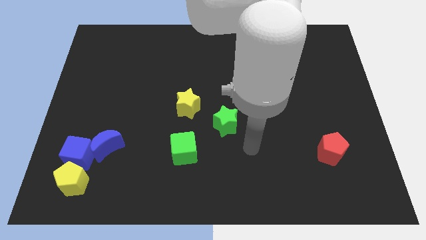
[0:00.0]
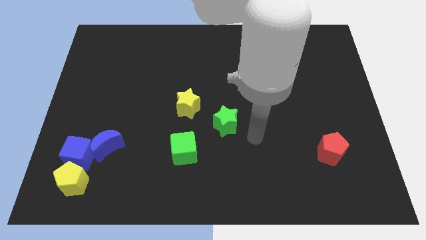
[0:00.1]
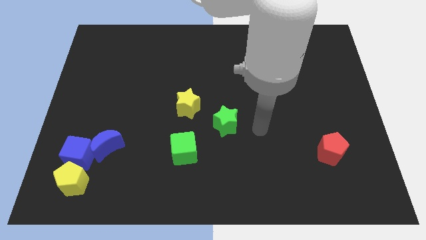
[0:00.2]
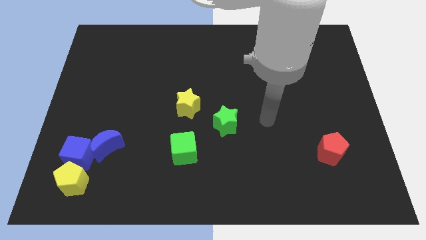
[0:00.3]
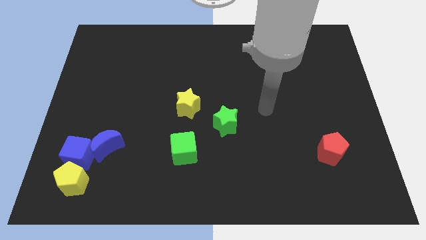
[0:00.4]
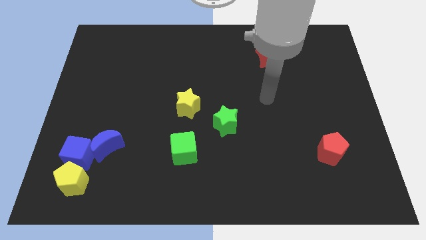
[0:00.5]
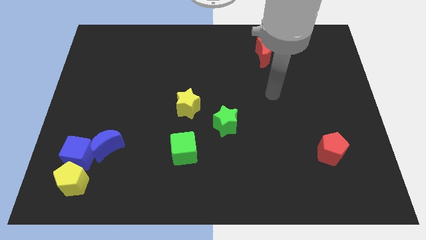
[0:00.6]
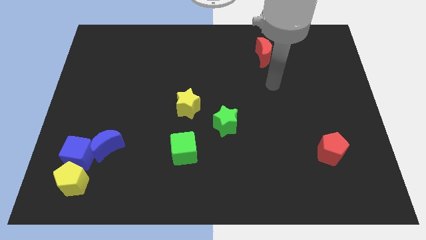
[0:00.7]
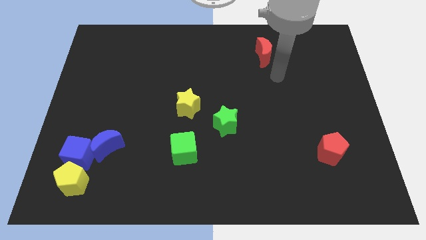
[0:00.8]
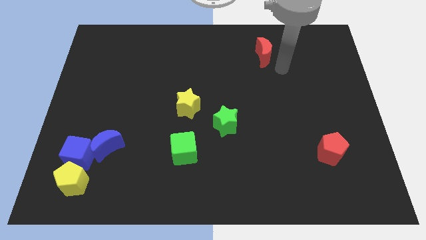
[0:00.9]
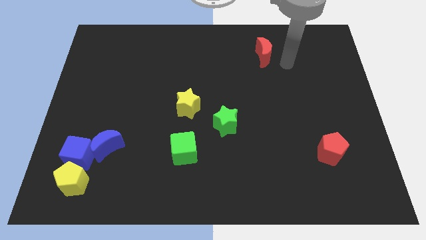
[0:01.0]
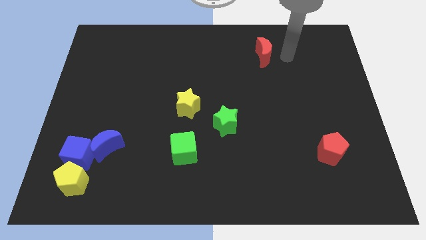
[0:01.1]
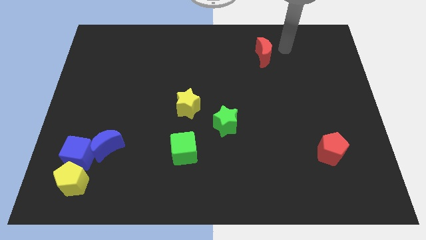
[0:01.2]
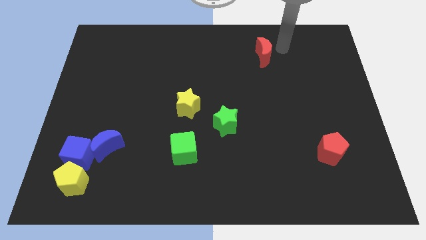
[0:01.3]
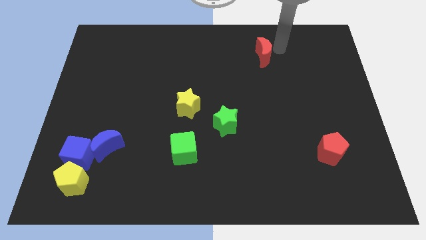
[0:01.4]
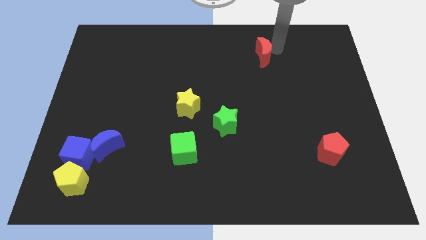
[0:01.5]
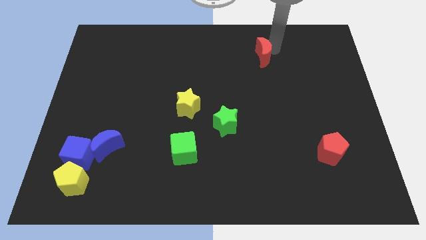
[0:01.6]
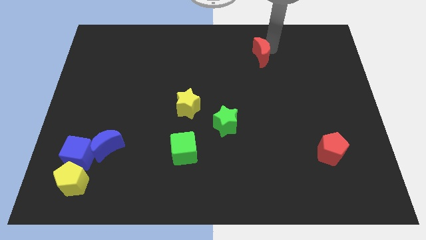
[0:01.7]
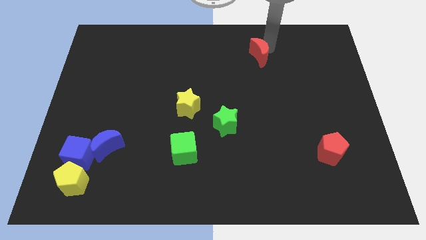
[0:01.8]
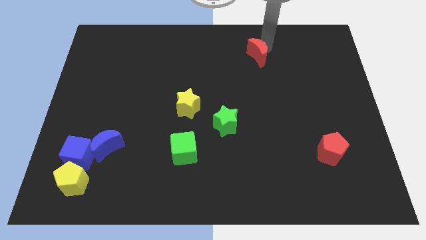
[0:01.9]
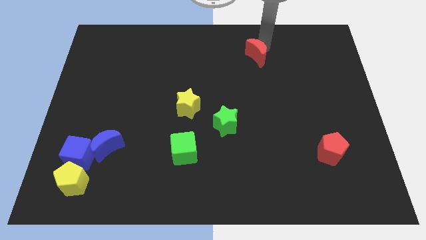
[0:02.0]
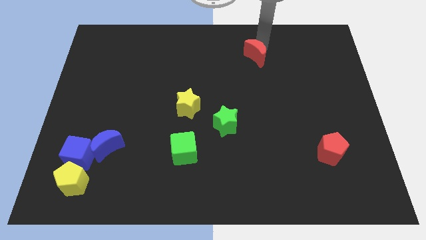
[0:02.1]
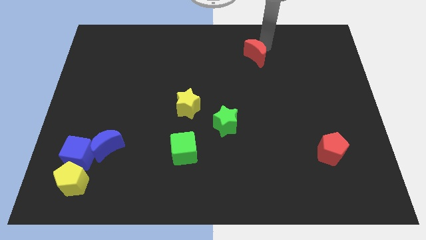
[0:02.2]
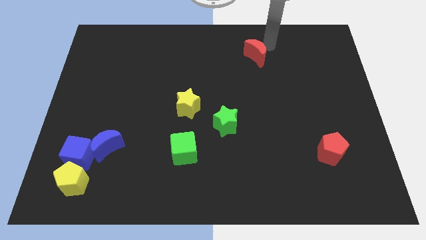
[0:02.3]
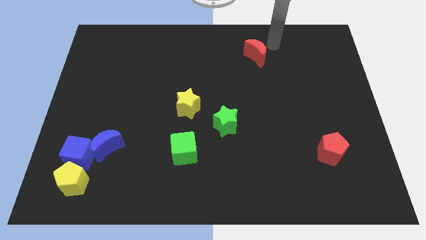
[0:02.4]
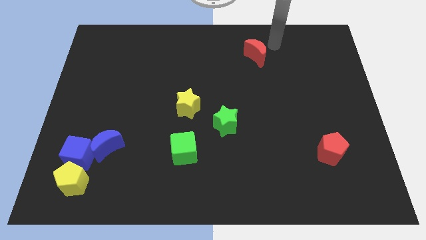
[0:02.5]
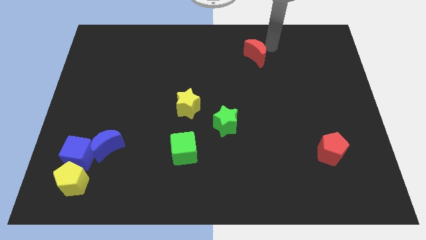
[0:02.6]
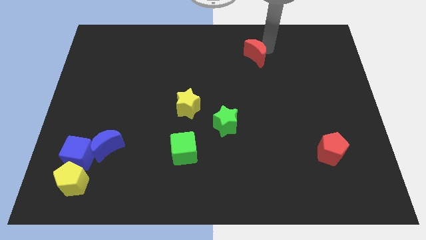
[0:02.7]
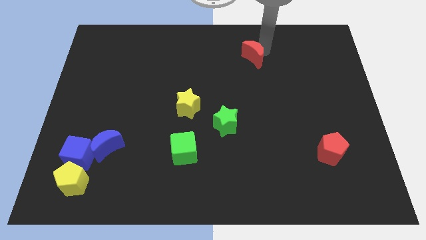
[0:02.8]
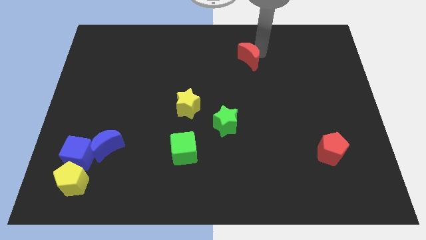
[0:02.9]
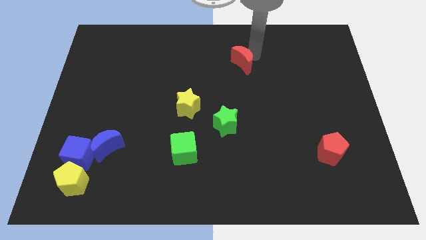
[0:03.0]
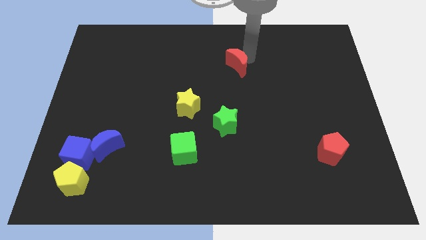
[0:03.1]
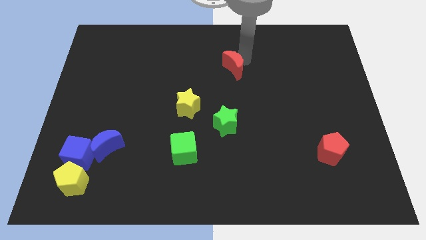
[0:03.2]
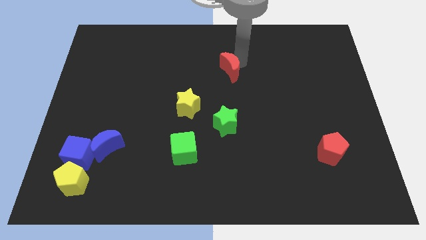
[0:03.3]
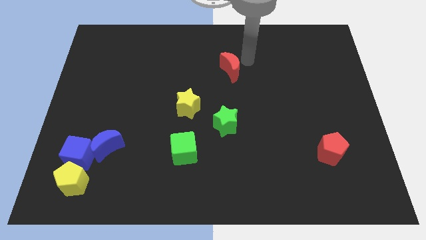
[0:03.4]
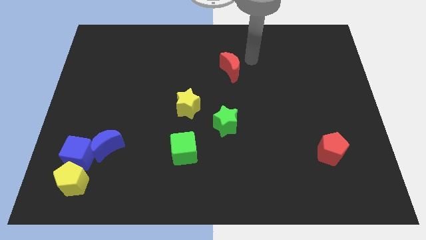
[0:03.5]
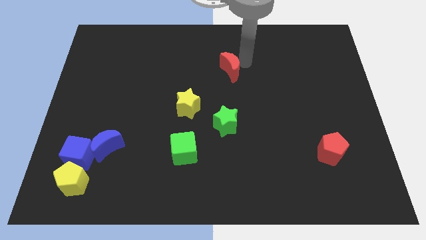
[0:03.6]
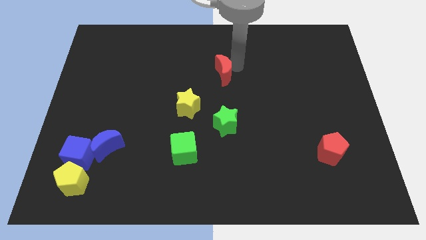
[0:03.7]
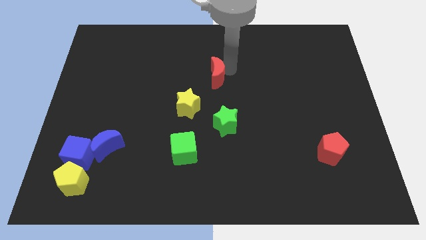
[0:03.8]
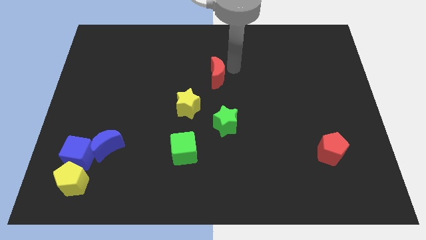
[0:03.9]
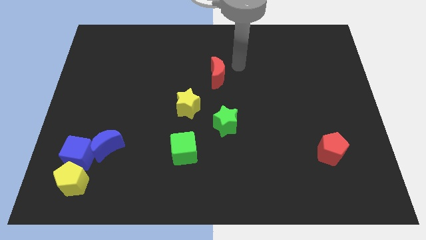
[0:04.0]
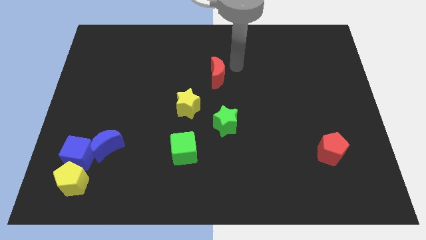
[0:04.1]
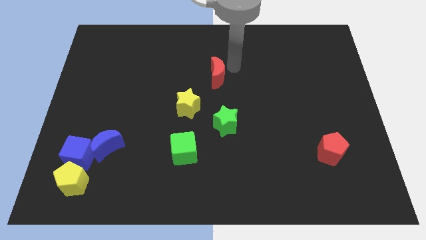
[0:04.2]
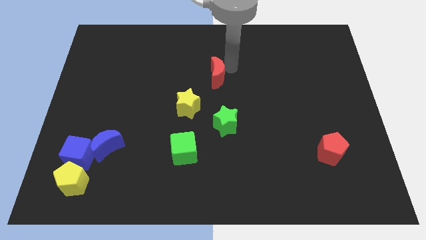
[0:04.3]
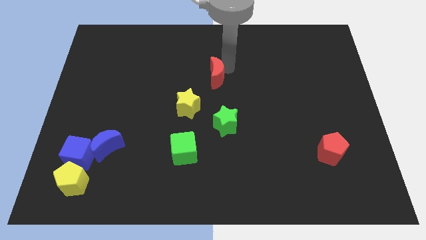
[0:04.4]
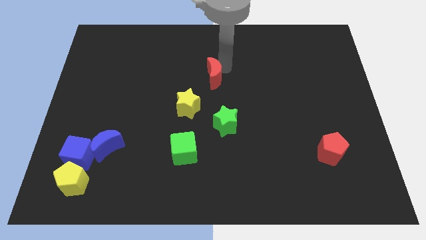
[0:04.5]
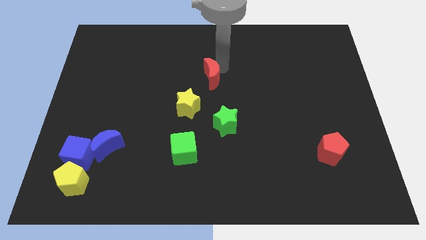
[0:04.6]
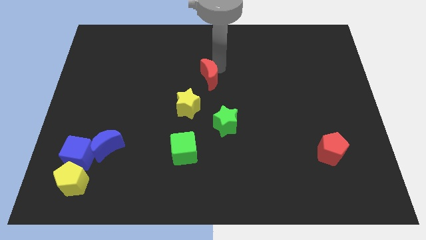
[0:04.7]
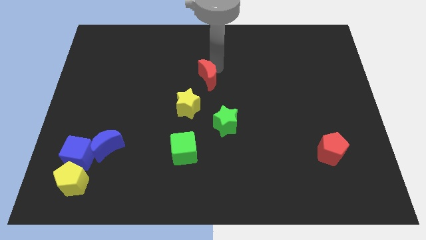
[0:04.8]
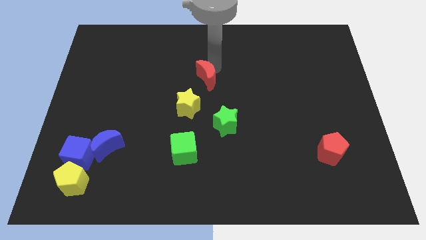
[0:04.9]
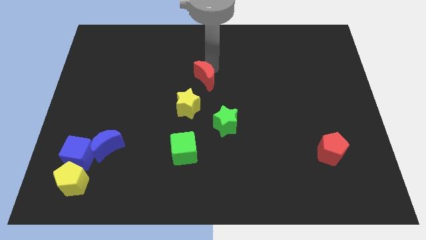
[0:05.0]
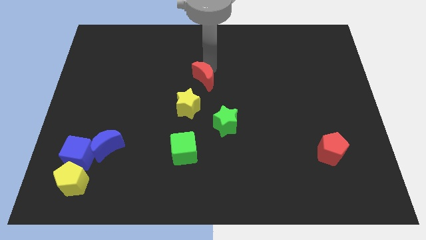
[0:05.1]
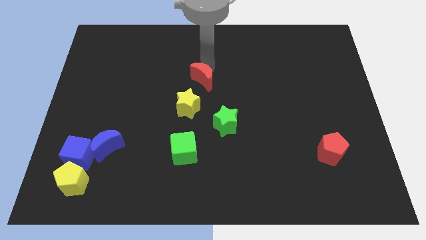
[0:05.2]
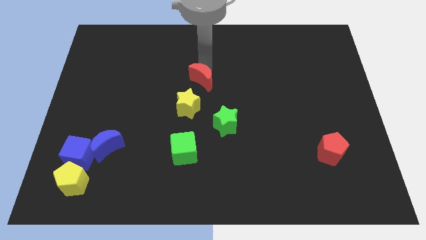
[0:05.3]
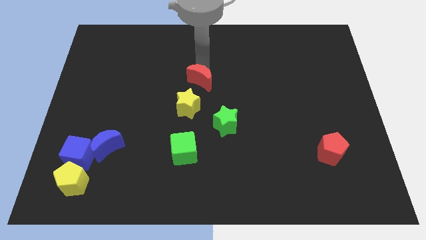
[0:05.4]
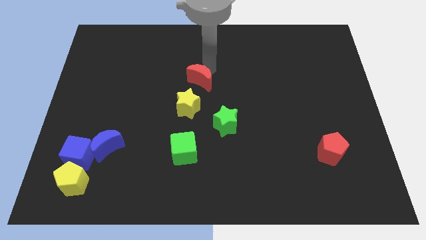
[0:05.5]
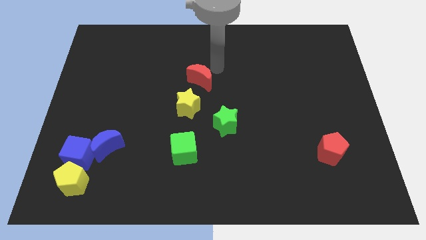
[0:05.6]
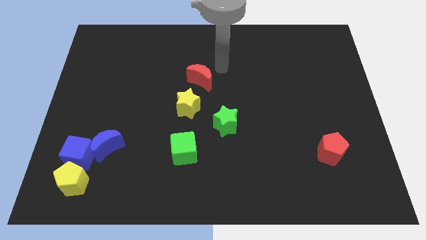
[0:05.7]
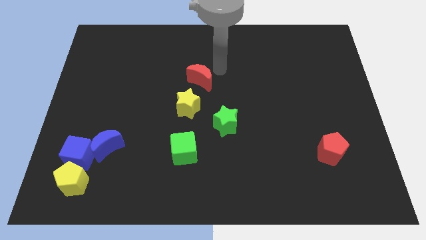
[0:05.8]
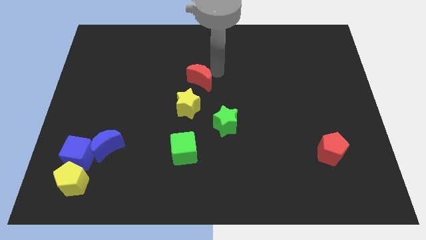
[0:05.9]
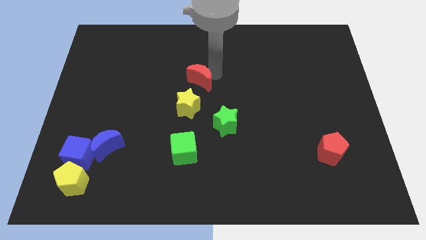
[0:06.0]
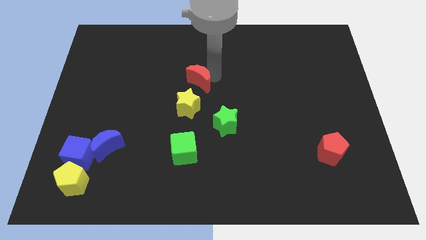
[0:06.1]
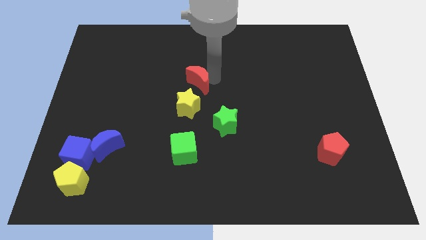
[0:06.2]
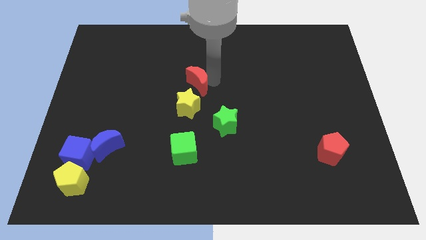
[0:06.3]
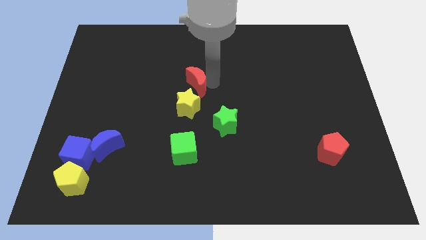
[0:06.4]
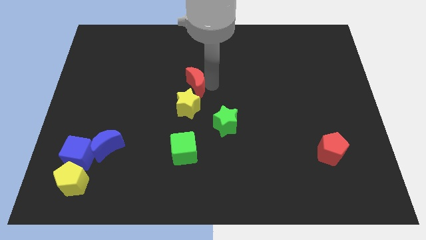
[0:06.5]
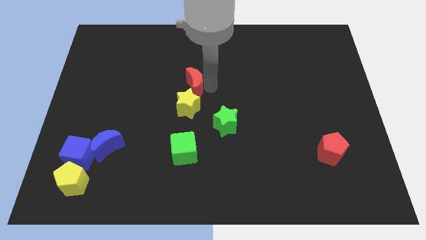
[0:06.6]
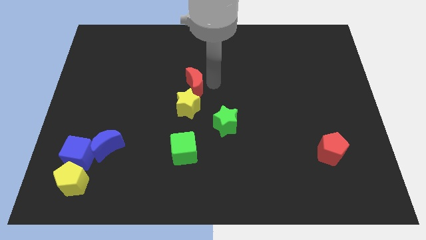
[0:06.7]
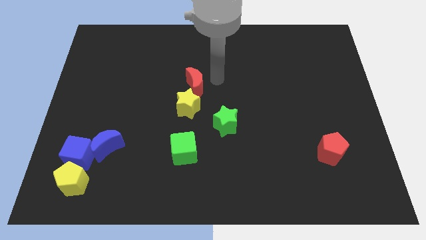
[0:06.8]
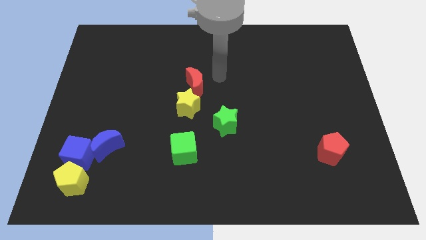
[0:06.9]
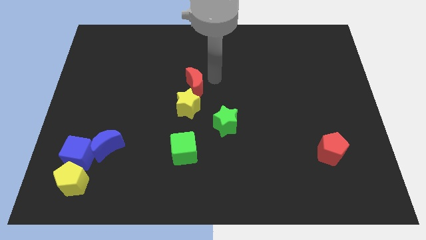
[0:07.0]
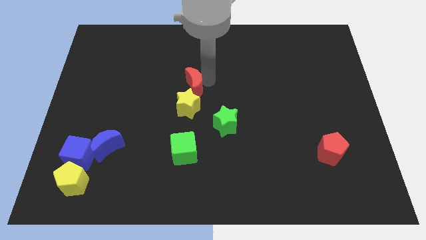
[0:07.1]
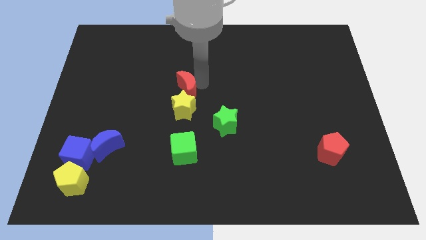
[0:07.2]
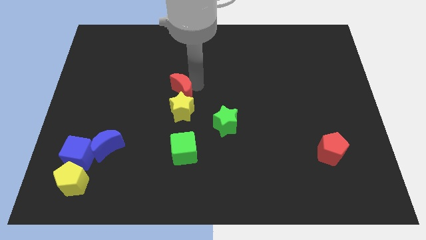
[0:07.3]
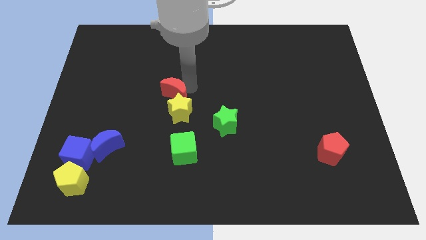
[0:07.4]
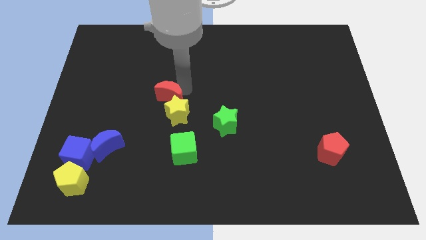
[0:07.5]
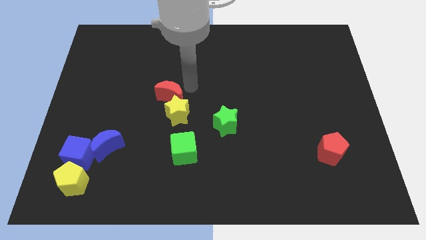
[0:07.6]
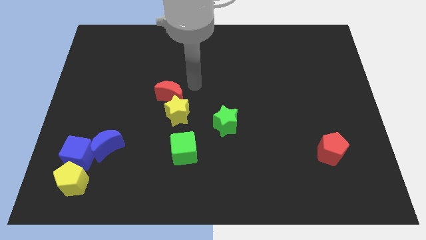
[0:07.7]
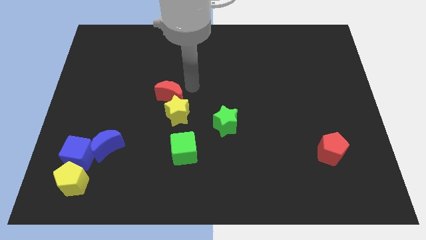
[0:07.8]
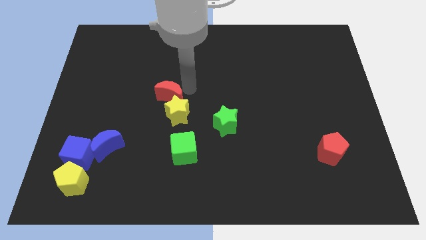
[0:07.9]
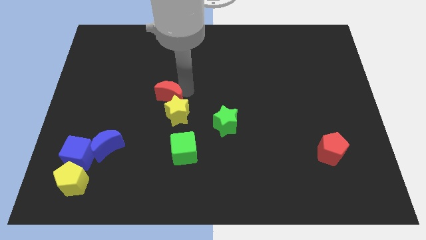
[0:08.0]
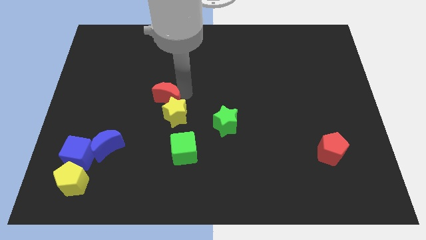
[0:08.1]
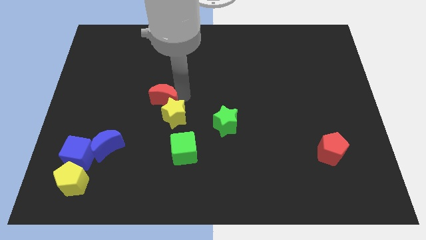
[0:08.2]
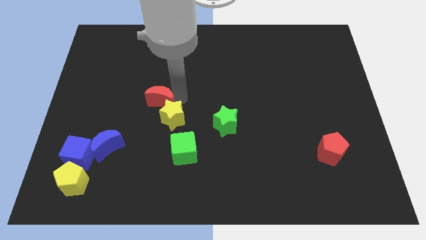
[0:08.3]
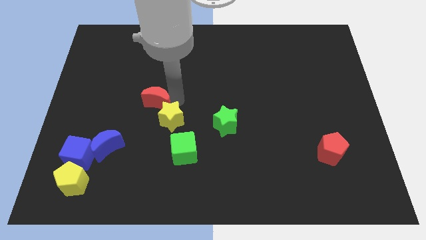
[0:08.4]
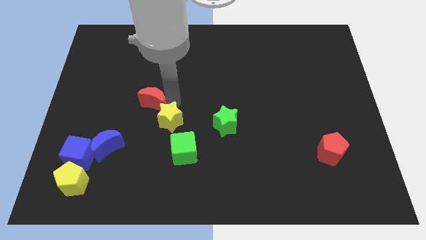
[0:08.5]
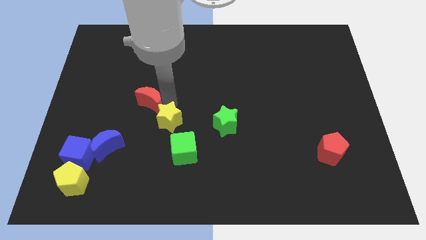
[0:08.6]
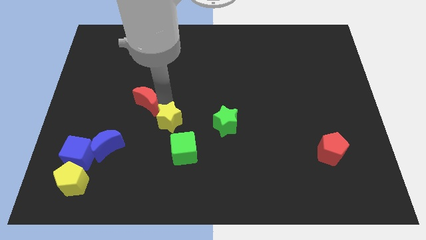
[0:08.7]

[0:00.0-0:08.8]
put the red moon left of the yellow star
